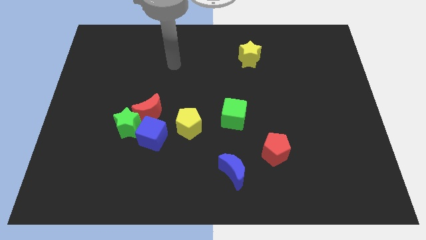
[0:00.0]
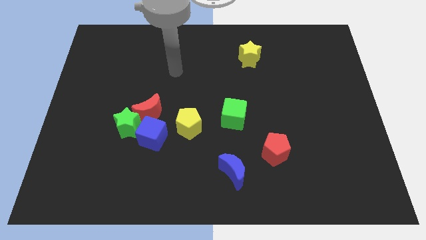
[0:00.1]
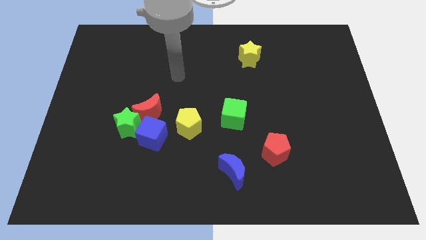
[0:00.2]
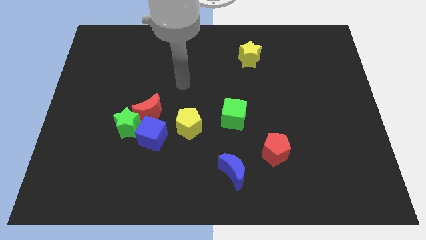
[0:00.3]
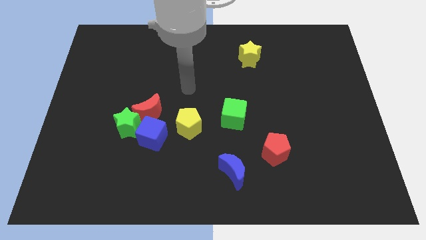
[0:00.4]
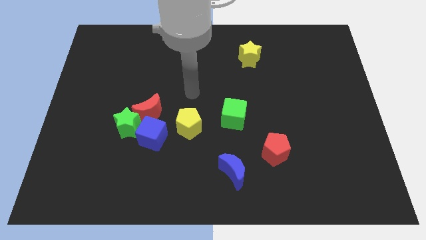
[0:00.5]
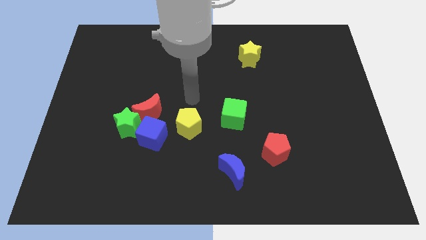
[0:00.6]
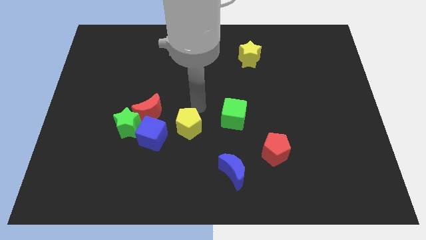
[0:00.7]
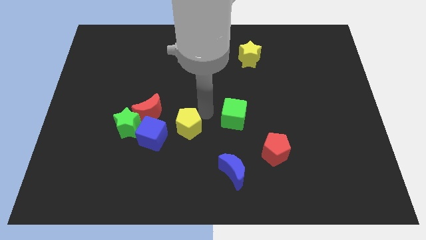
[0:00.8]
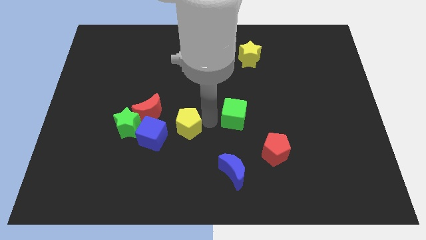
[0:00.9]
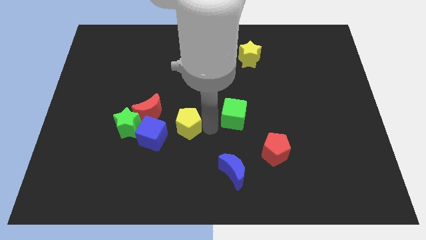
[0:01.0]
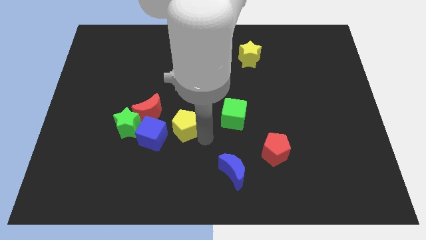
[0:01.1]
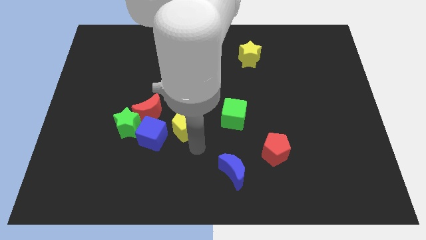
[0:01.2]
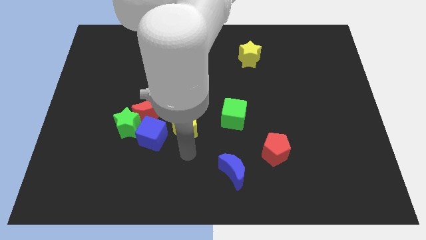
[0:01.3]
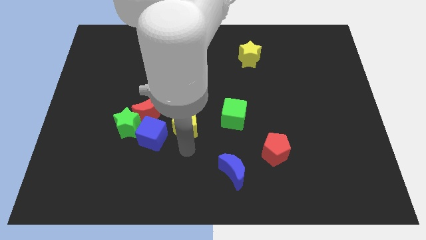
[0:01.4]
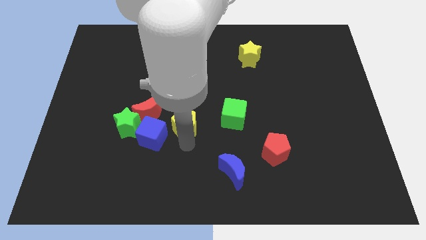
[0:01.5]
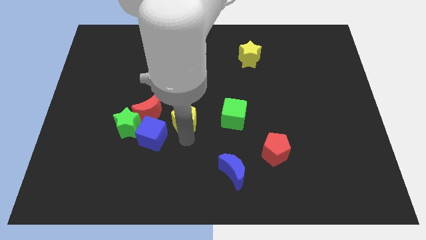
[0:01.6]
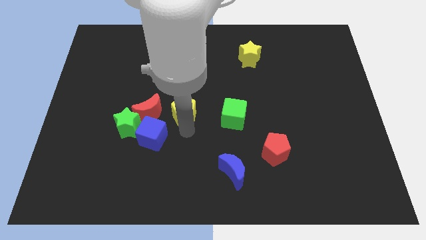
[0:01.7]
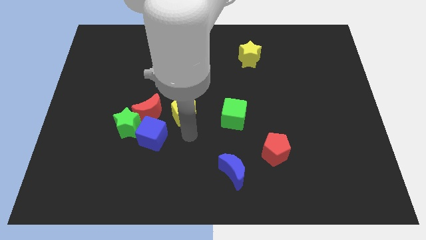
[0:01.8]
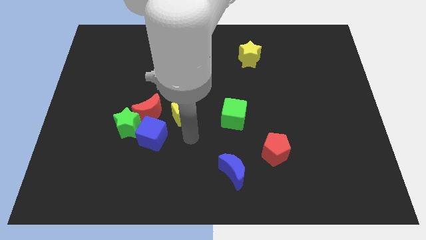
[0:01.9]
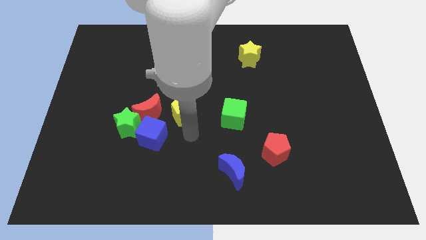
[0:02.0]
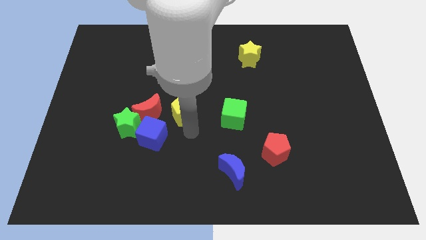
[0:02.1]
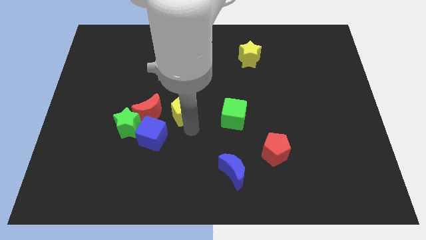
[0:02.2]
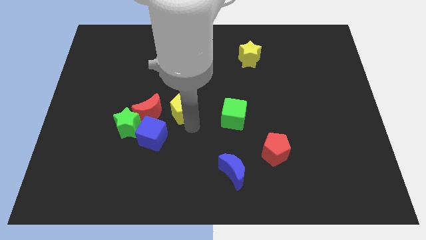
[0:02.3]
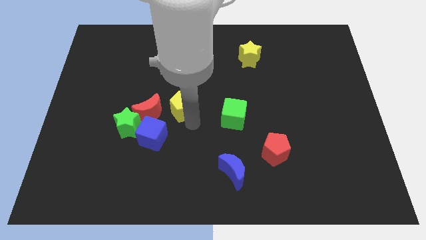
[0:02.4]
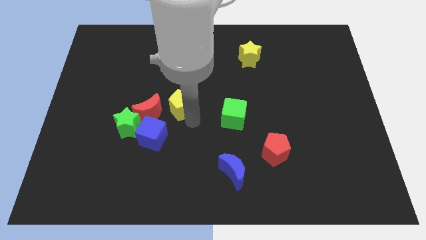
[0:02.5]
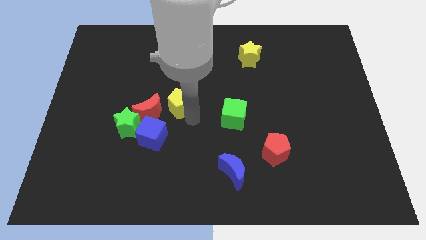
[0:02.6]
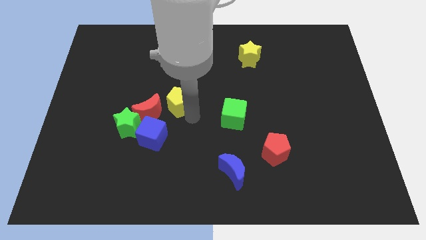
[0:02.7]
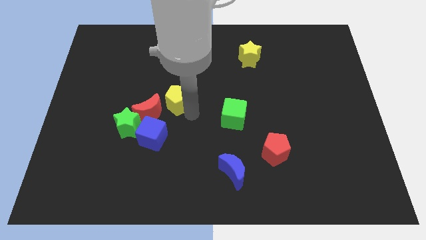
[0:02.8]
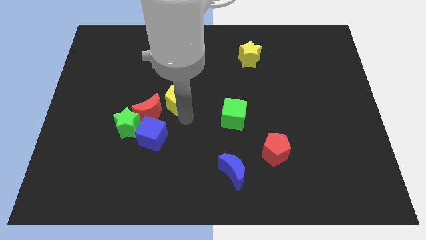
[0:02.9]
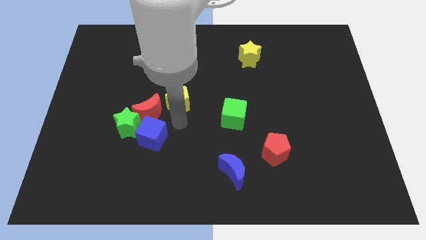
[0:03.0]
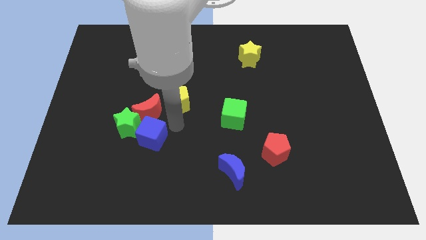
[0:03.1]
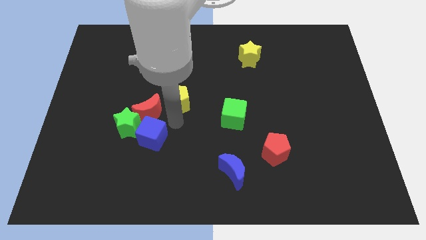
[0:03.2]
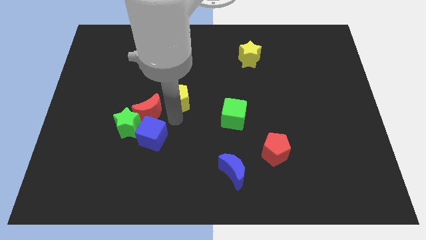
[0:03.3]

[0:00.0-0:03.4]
push the yellow pentagon upwards a little bit

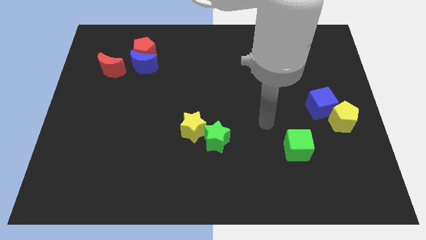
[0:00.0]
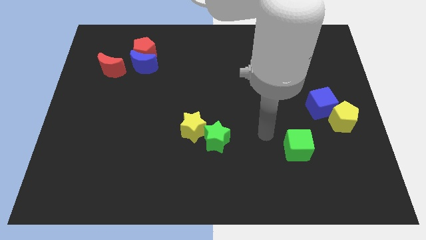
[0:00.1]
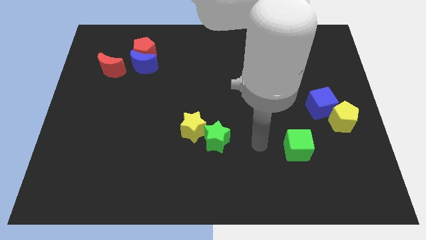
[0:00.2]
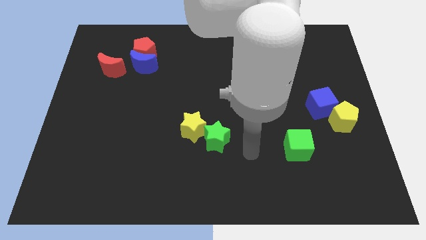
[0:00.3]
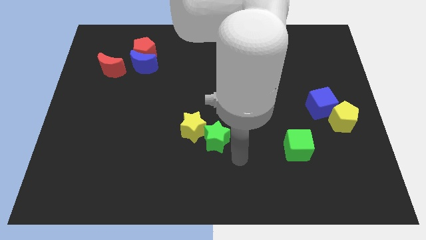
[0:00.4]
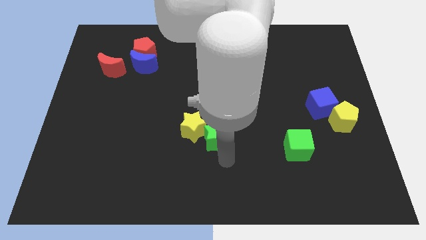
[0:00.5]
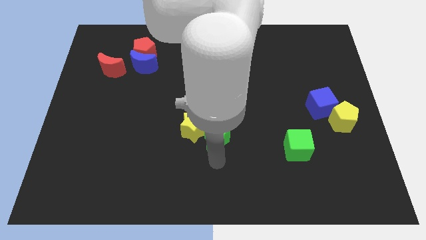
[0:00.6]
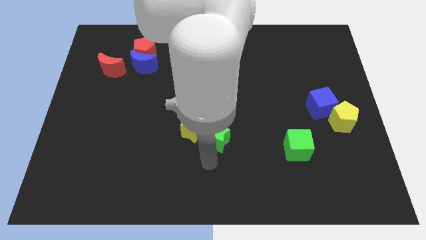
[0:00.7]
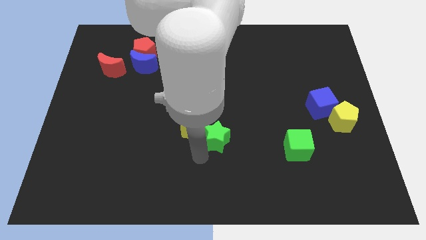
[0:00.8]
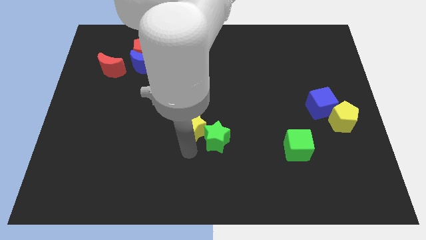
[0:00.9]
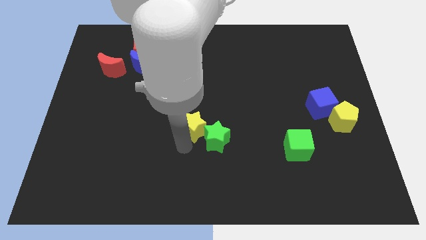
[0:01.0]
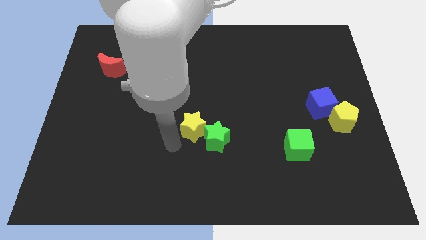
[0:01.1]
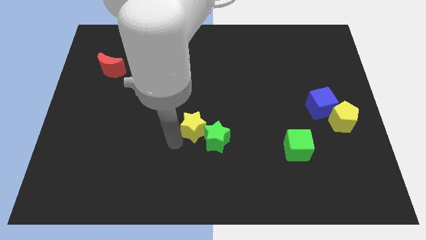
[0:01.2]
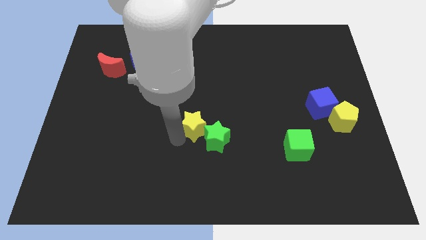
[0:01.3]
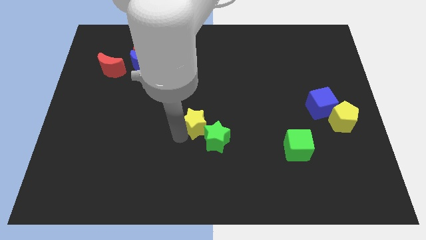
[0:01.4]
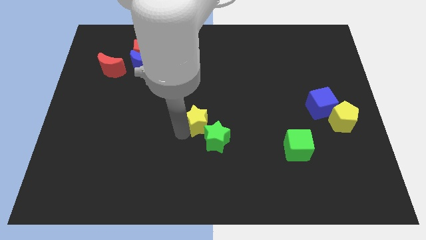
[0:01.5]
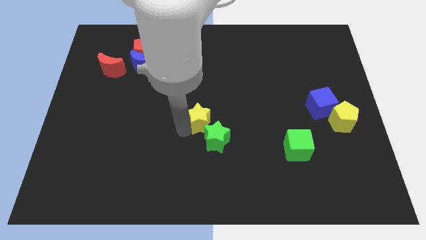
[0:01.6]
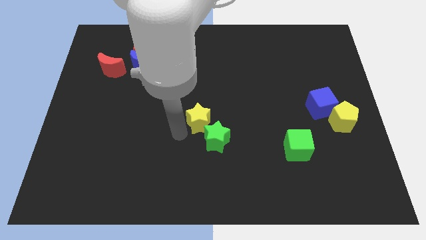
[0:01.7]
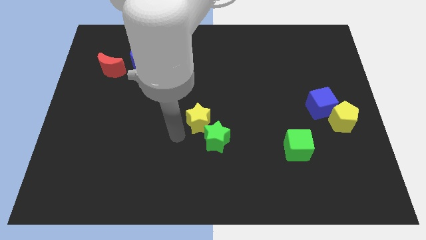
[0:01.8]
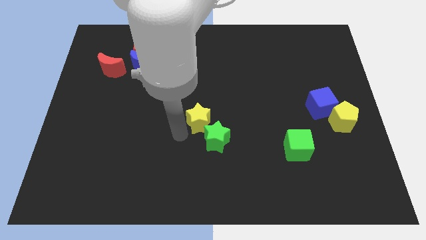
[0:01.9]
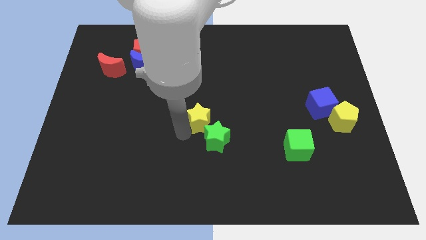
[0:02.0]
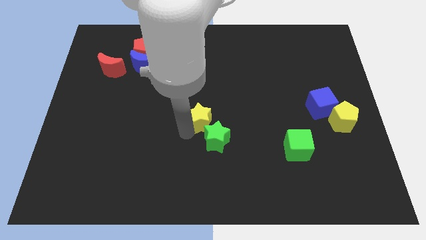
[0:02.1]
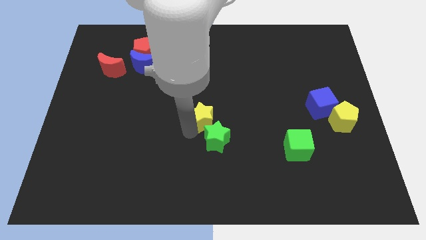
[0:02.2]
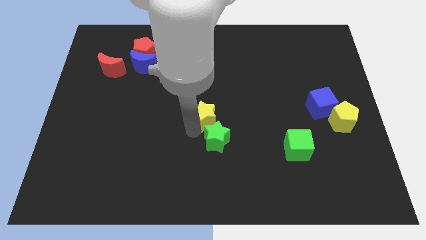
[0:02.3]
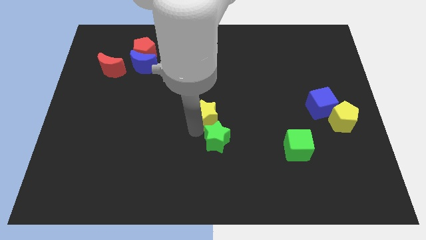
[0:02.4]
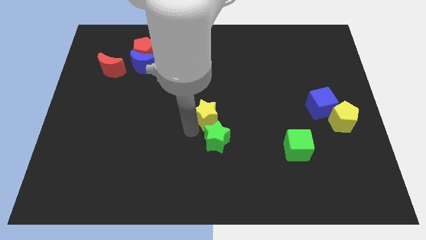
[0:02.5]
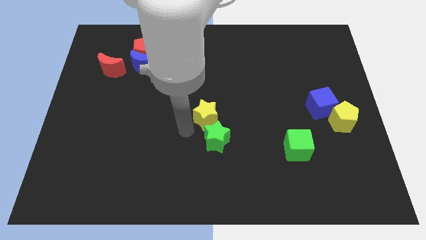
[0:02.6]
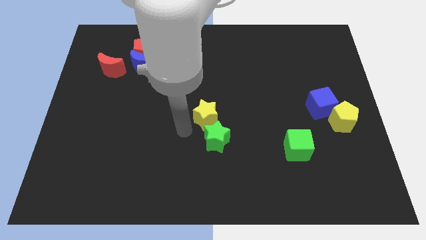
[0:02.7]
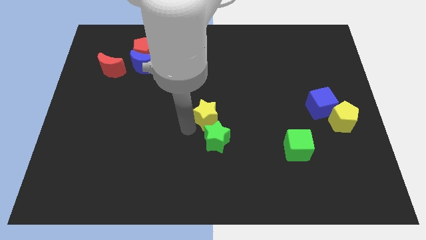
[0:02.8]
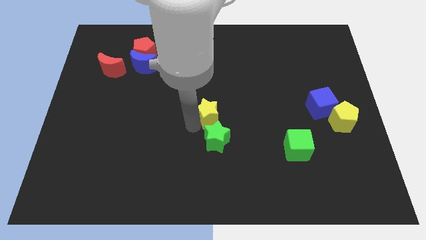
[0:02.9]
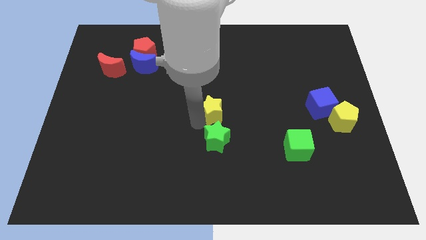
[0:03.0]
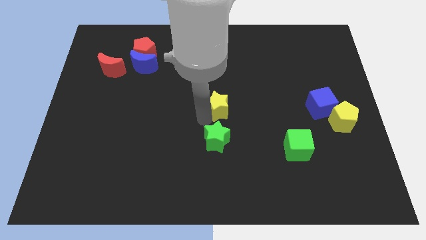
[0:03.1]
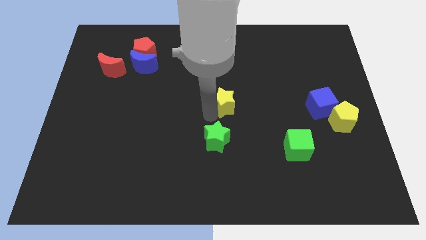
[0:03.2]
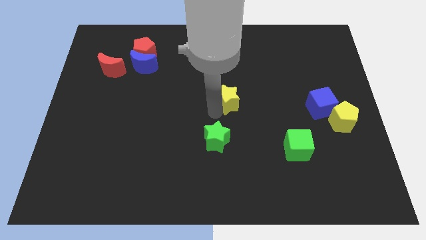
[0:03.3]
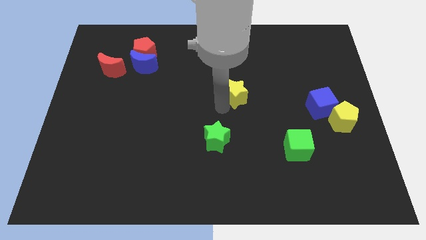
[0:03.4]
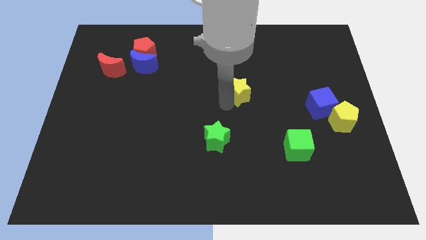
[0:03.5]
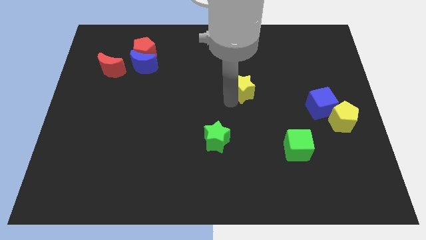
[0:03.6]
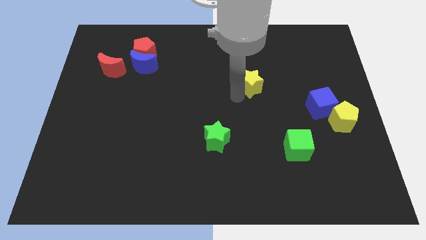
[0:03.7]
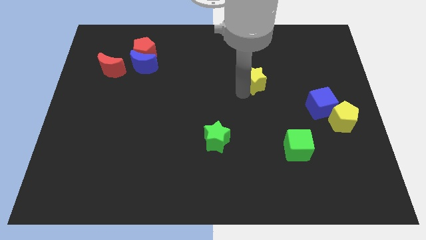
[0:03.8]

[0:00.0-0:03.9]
push the yellow star up and then to the right

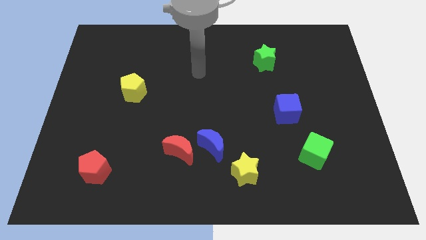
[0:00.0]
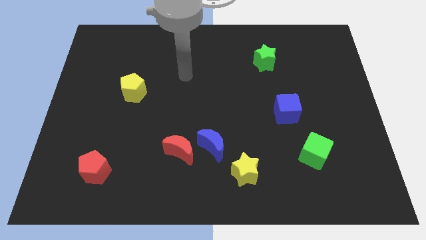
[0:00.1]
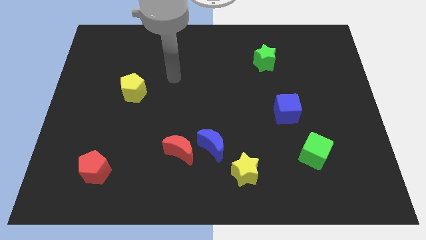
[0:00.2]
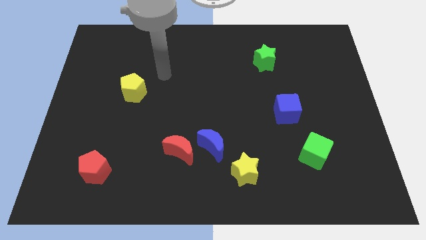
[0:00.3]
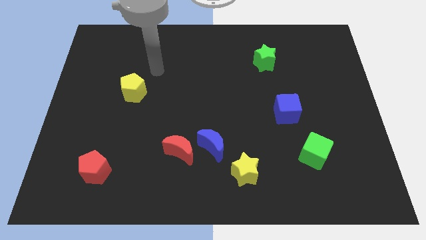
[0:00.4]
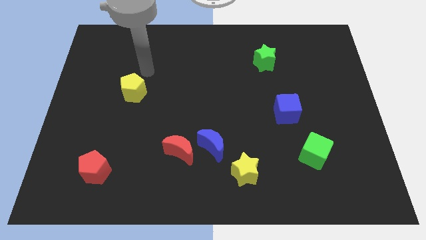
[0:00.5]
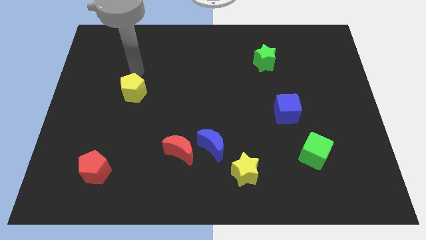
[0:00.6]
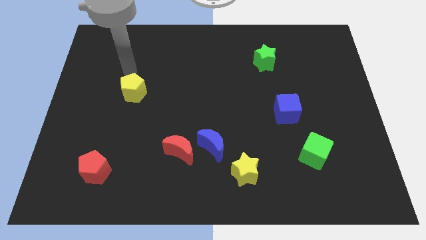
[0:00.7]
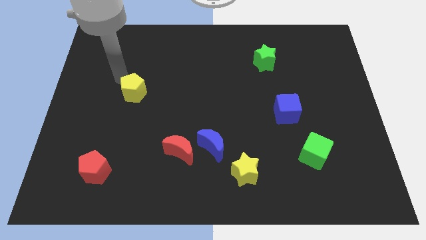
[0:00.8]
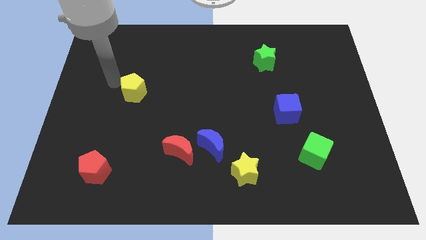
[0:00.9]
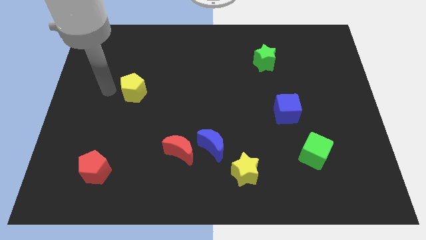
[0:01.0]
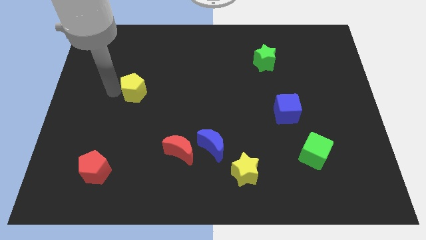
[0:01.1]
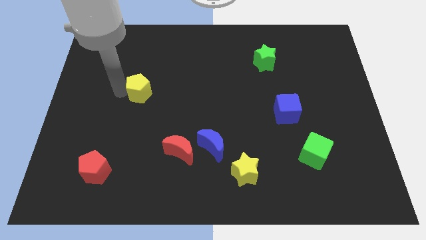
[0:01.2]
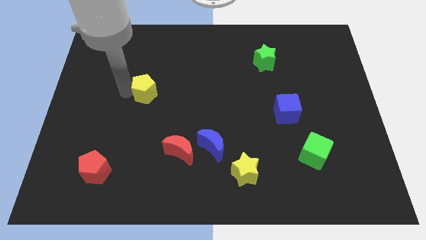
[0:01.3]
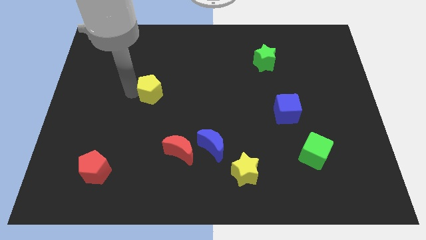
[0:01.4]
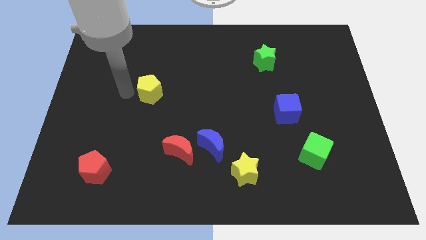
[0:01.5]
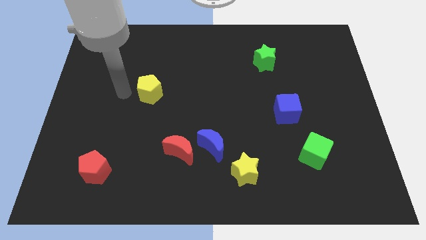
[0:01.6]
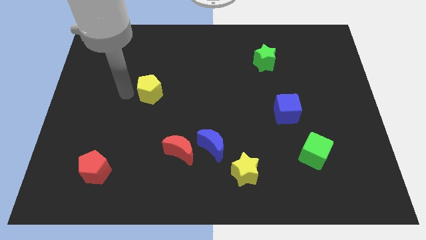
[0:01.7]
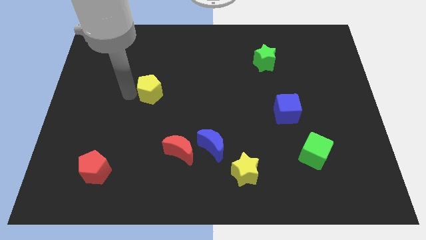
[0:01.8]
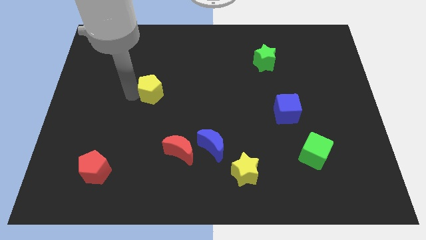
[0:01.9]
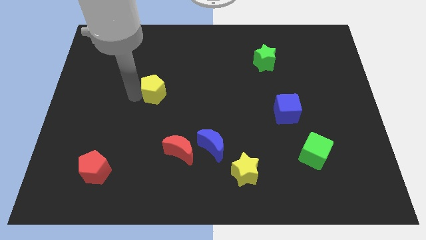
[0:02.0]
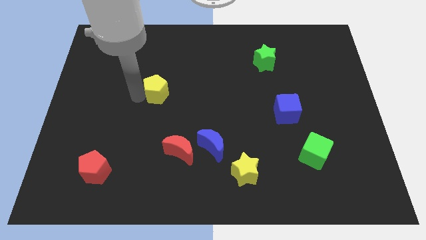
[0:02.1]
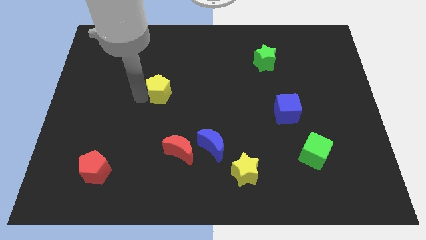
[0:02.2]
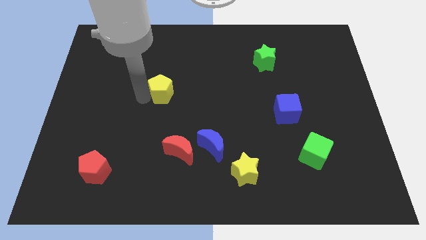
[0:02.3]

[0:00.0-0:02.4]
push the yellow pentagon to the right a little
